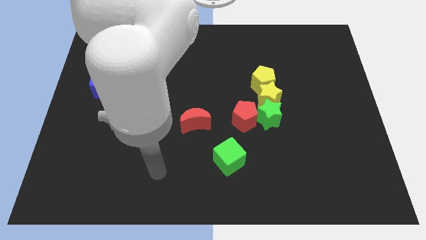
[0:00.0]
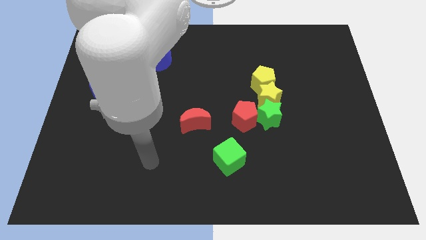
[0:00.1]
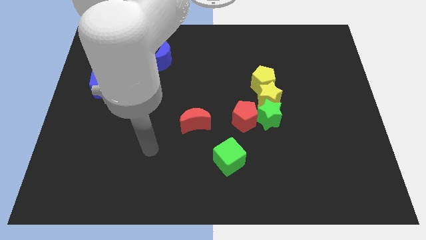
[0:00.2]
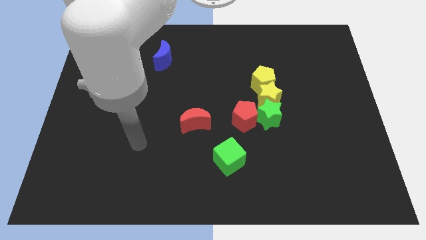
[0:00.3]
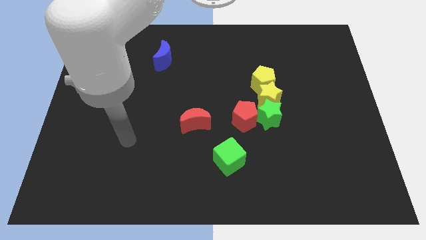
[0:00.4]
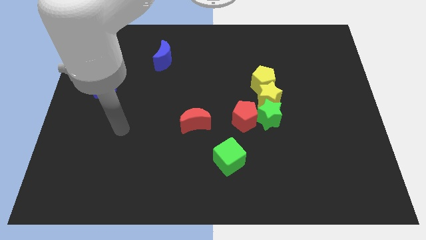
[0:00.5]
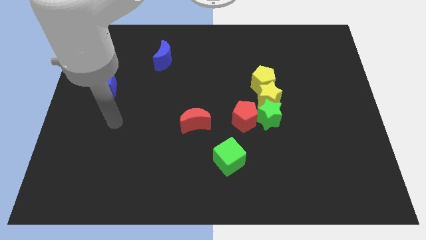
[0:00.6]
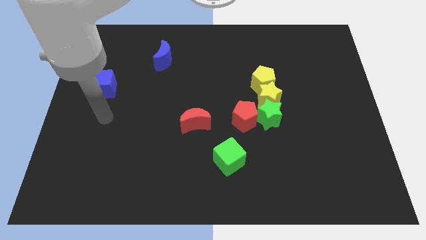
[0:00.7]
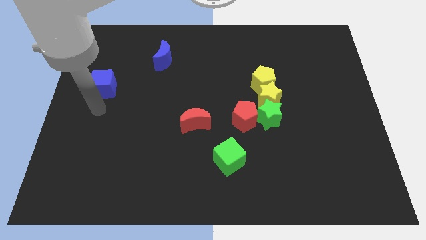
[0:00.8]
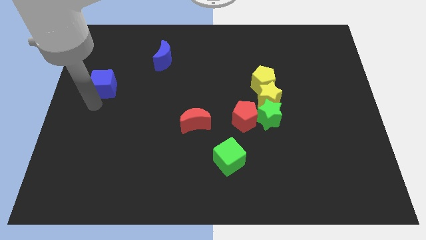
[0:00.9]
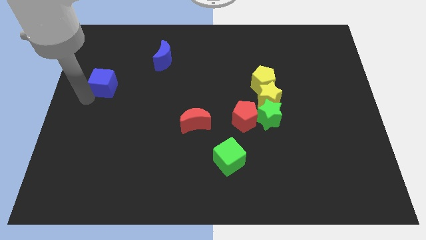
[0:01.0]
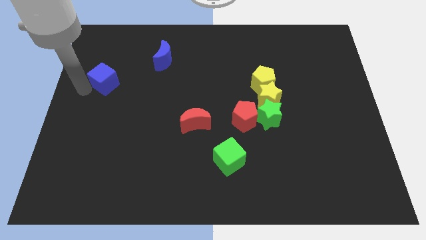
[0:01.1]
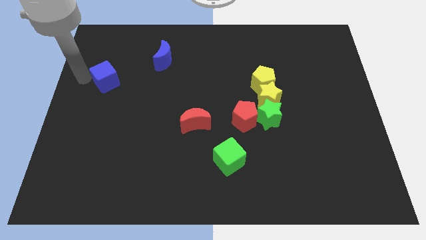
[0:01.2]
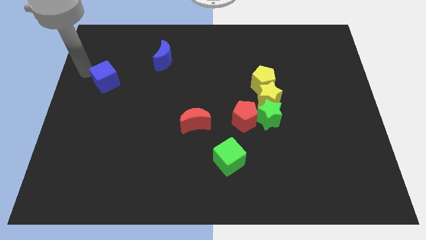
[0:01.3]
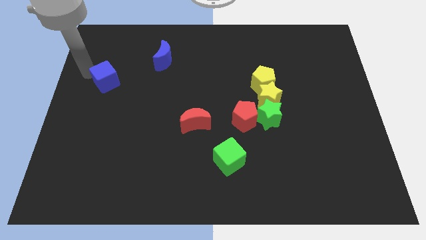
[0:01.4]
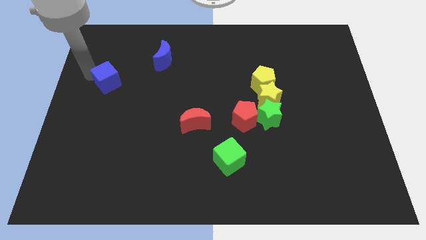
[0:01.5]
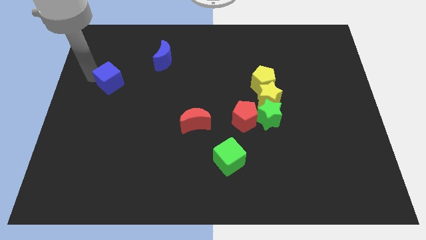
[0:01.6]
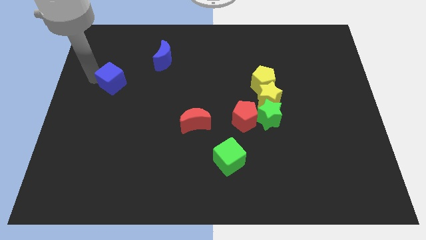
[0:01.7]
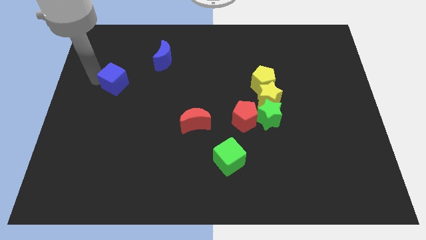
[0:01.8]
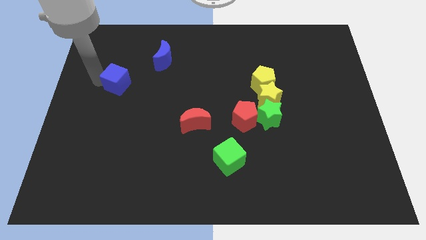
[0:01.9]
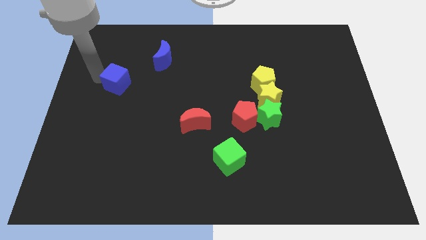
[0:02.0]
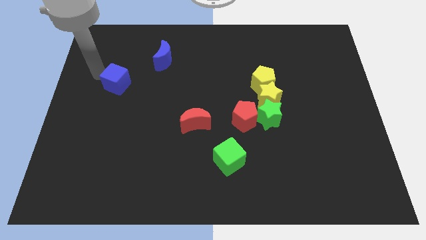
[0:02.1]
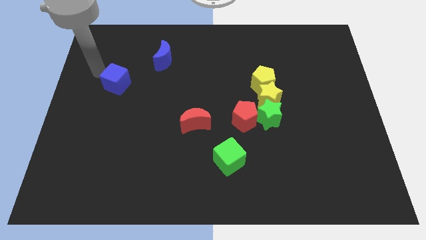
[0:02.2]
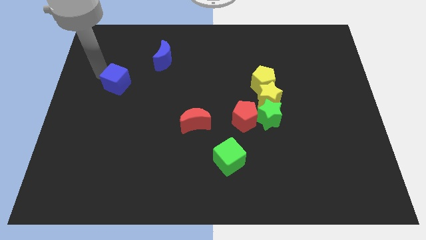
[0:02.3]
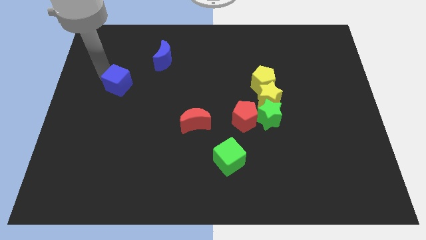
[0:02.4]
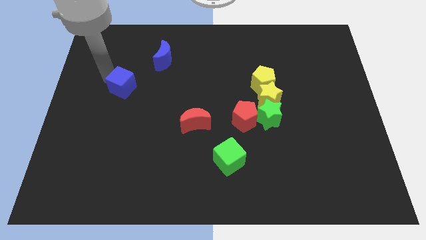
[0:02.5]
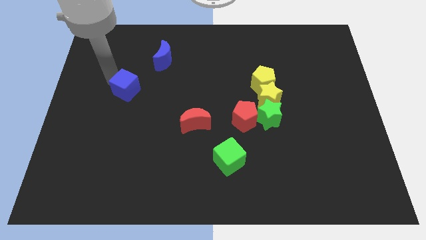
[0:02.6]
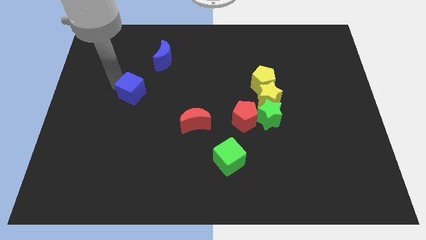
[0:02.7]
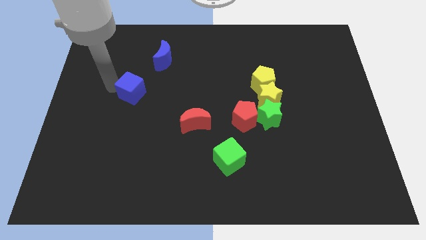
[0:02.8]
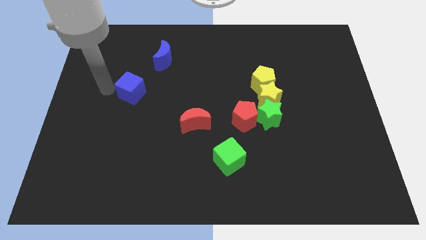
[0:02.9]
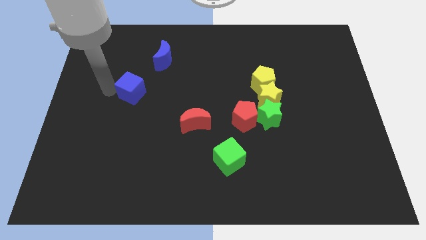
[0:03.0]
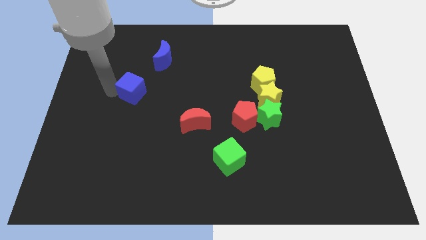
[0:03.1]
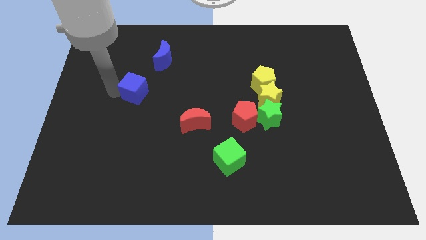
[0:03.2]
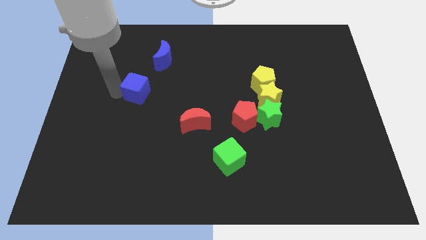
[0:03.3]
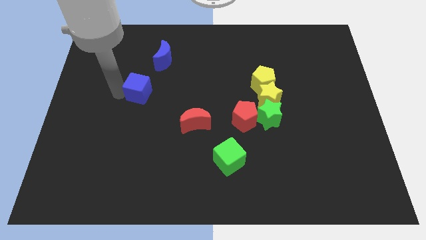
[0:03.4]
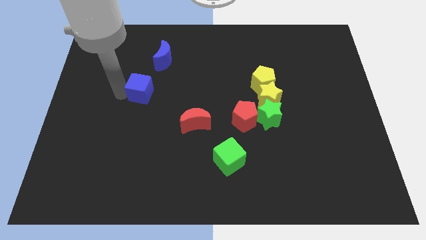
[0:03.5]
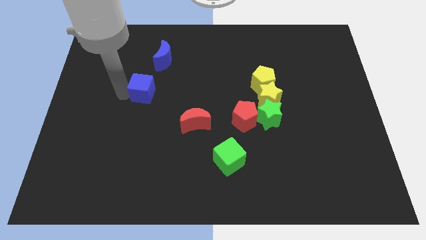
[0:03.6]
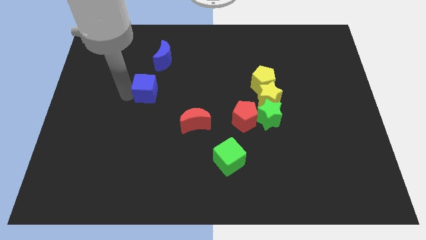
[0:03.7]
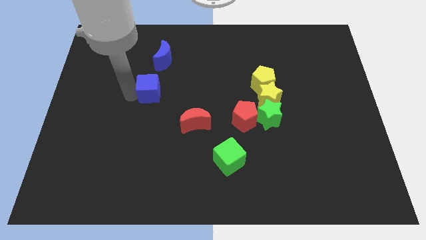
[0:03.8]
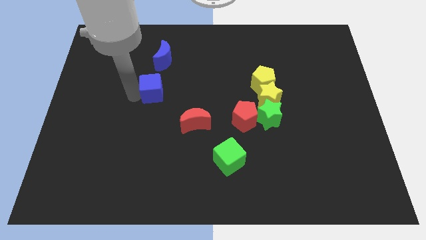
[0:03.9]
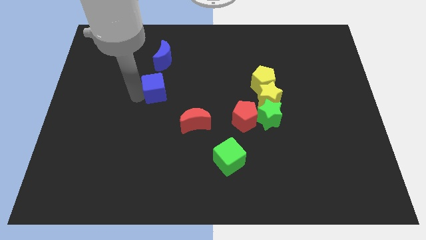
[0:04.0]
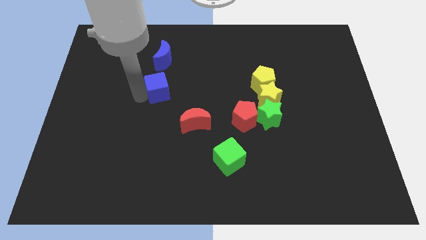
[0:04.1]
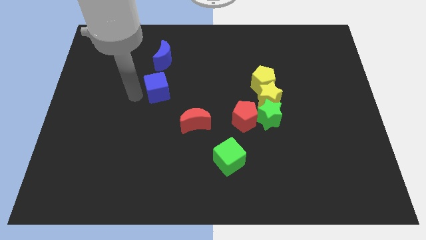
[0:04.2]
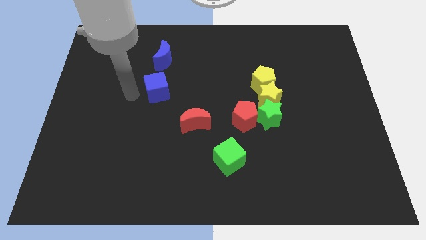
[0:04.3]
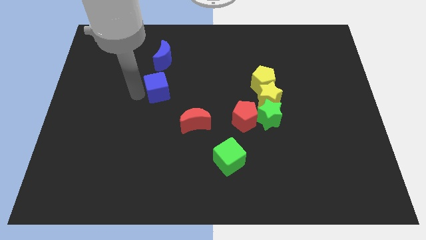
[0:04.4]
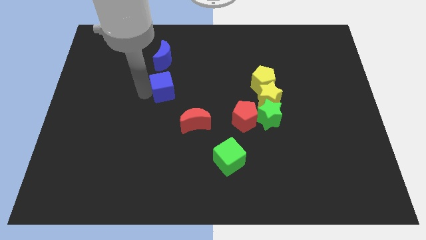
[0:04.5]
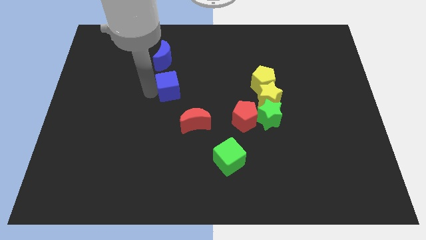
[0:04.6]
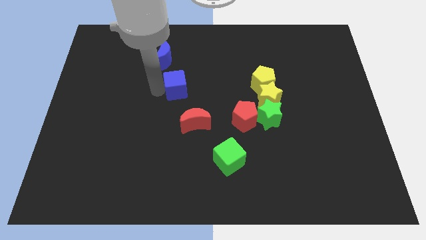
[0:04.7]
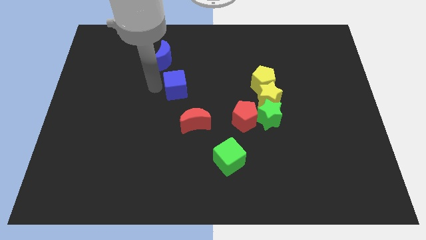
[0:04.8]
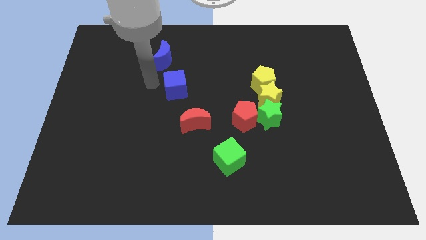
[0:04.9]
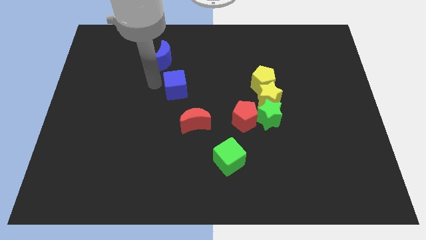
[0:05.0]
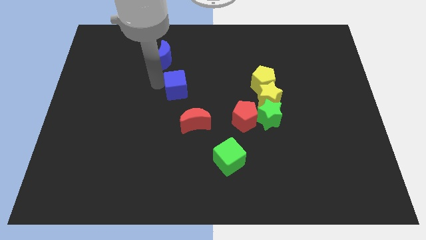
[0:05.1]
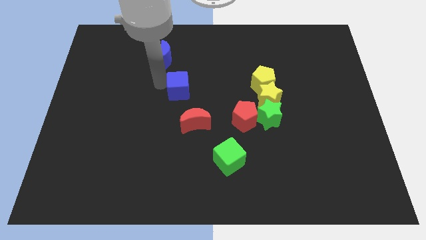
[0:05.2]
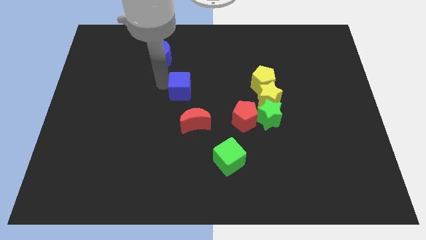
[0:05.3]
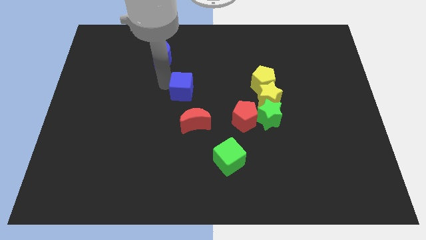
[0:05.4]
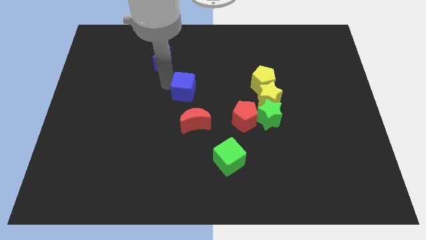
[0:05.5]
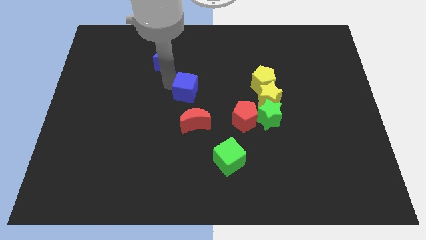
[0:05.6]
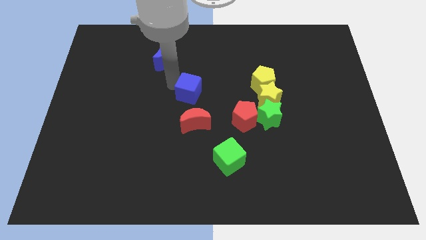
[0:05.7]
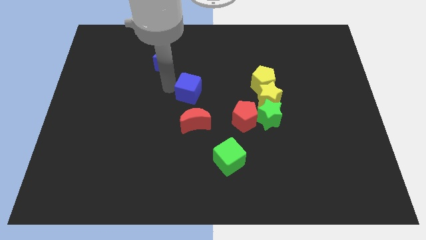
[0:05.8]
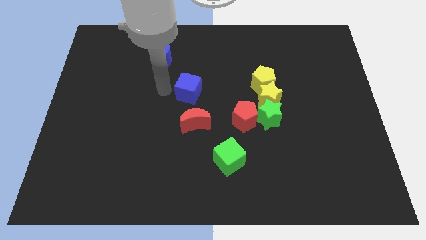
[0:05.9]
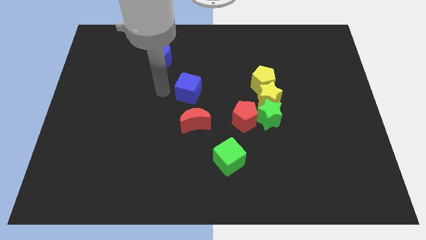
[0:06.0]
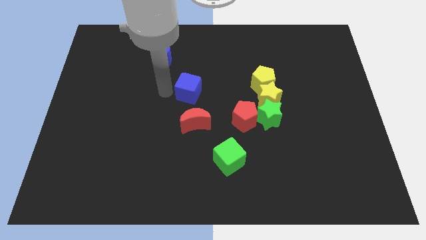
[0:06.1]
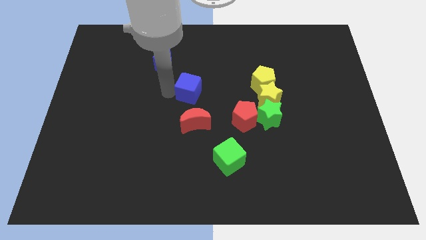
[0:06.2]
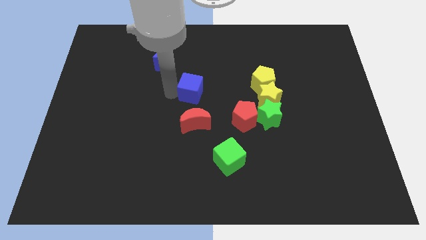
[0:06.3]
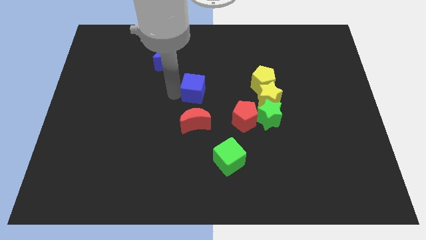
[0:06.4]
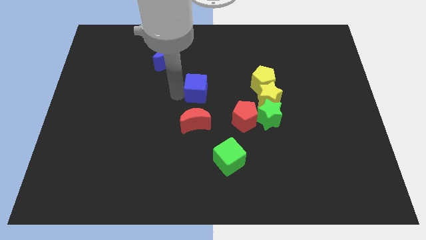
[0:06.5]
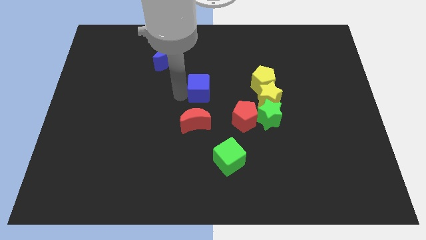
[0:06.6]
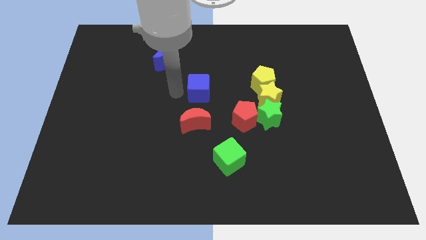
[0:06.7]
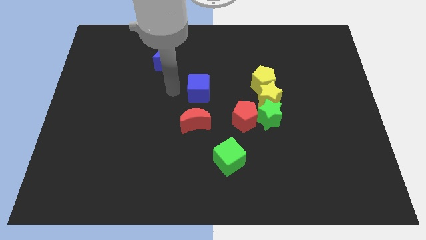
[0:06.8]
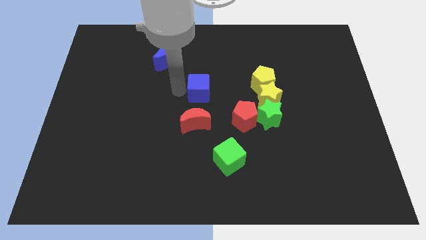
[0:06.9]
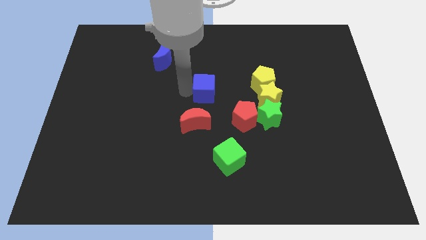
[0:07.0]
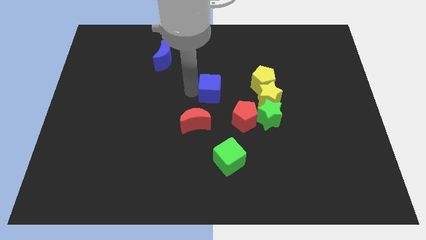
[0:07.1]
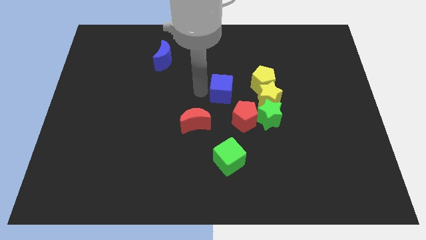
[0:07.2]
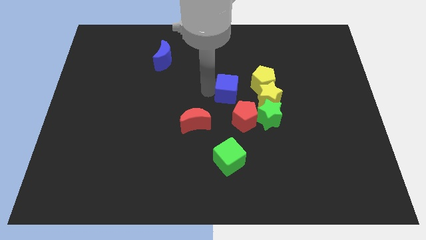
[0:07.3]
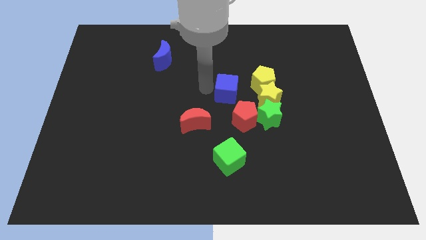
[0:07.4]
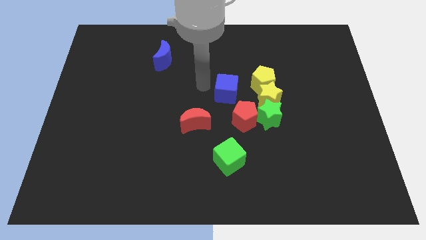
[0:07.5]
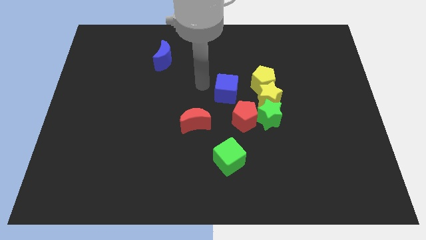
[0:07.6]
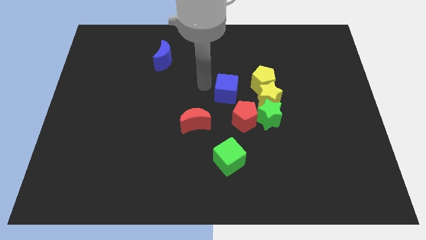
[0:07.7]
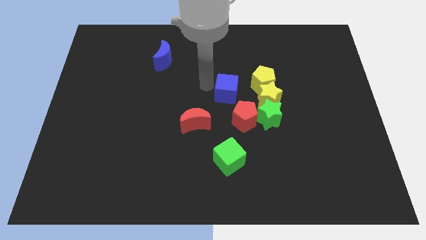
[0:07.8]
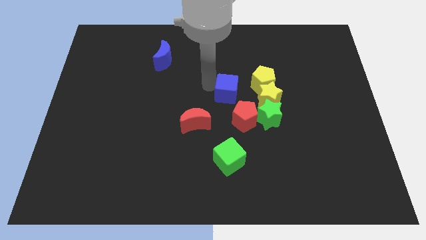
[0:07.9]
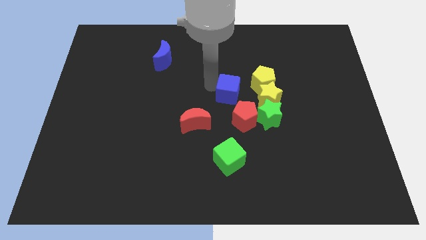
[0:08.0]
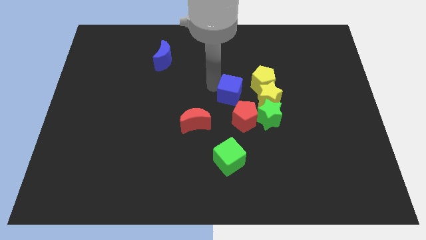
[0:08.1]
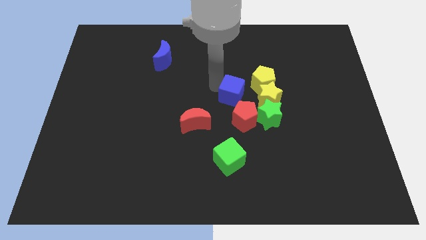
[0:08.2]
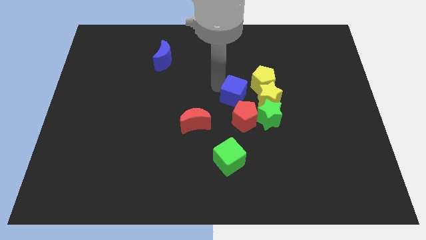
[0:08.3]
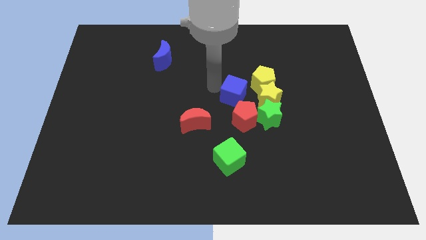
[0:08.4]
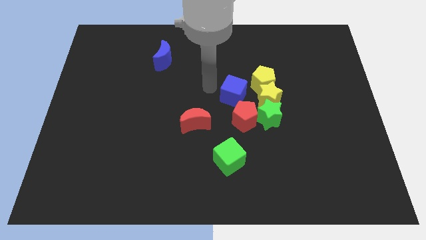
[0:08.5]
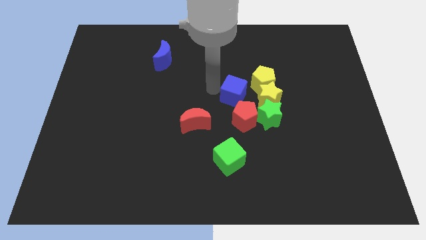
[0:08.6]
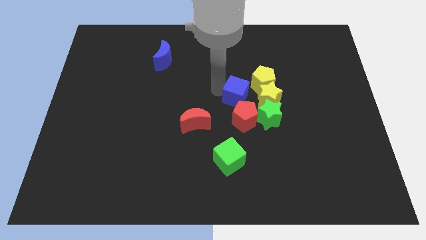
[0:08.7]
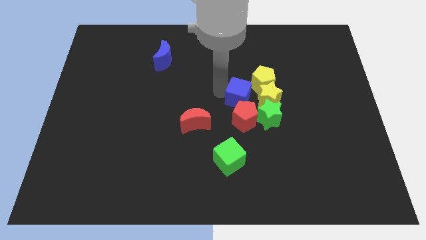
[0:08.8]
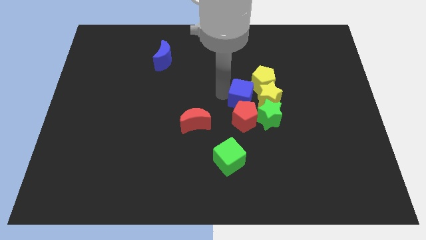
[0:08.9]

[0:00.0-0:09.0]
put the blue cube towards the yellow star
